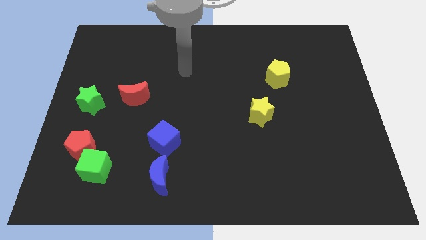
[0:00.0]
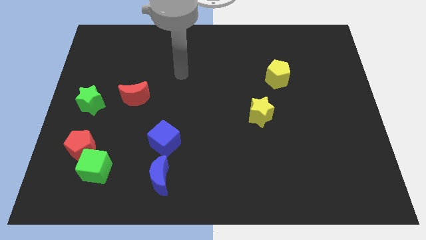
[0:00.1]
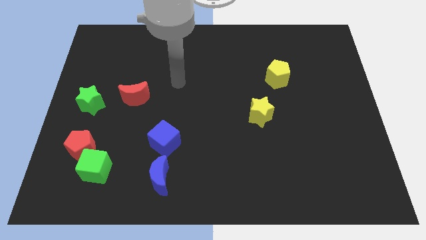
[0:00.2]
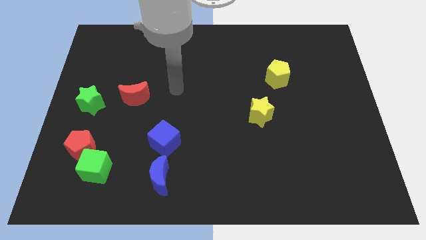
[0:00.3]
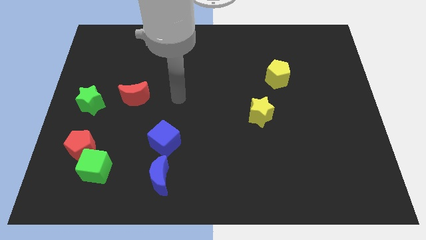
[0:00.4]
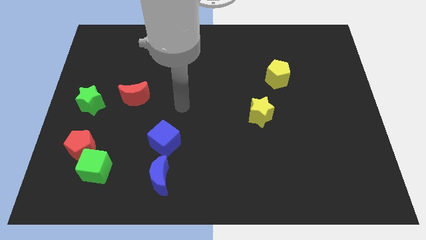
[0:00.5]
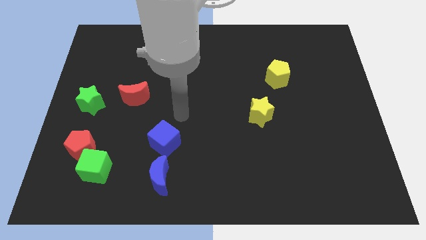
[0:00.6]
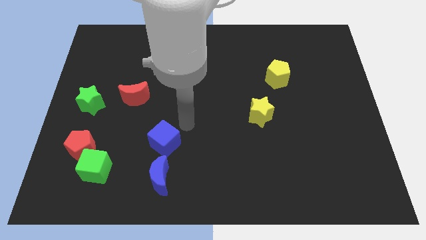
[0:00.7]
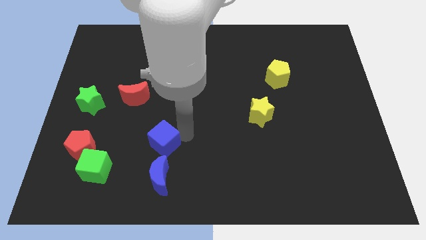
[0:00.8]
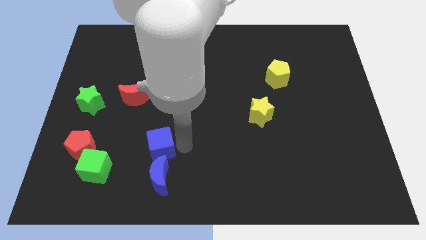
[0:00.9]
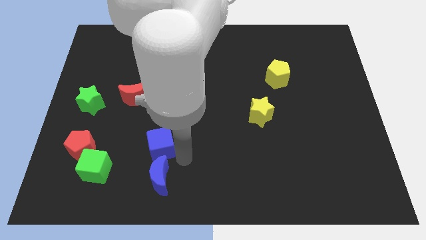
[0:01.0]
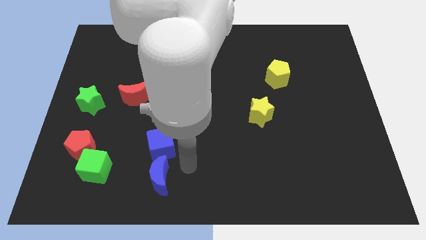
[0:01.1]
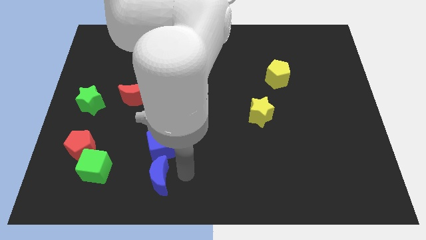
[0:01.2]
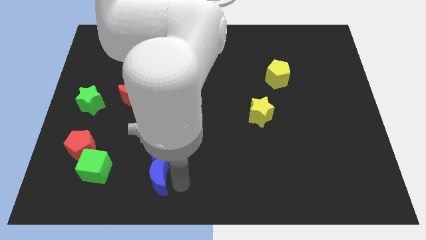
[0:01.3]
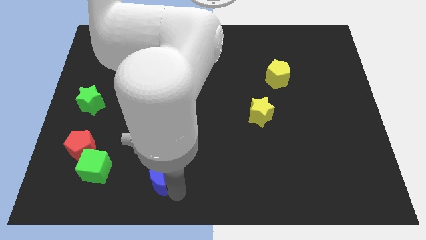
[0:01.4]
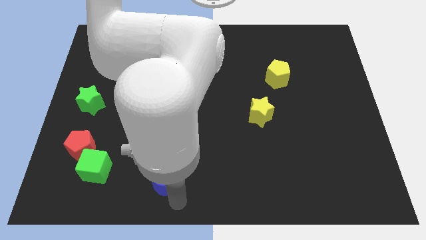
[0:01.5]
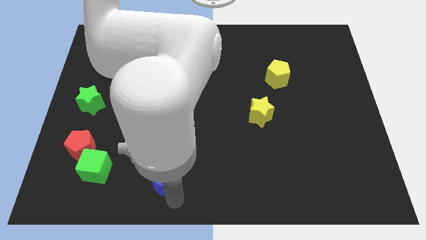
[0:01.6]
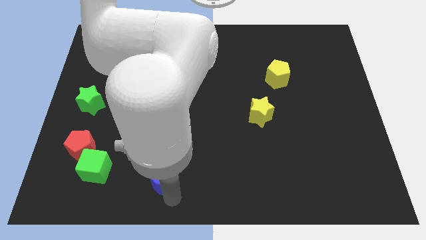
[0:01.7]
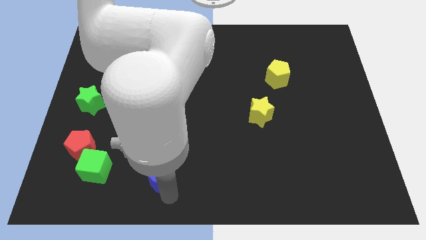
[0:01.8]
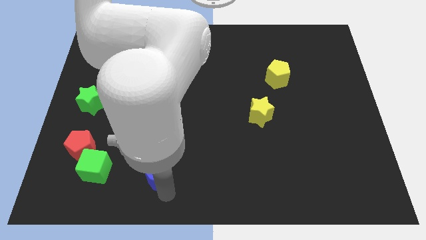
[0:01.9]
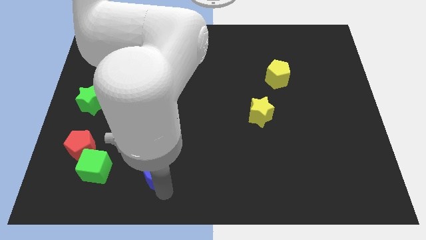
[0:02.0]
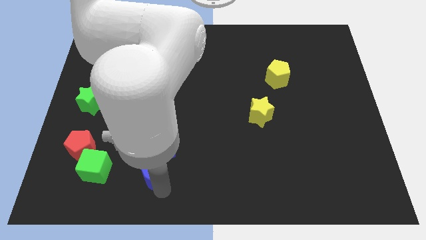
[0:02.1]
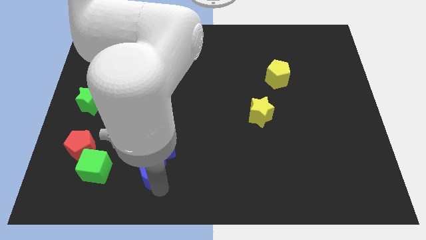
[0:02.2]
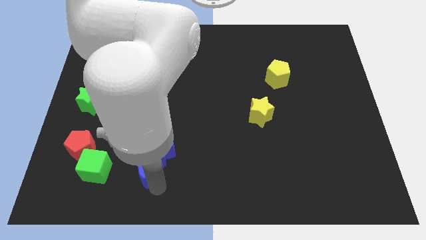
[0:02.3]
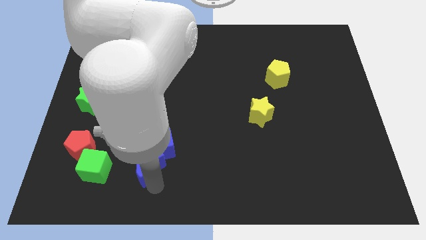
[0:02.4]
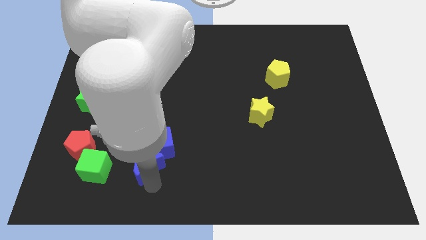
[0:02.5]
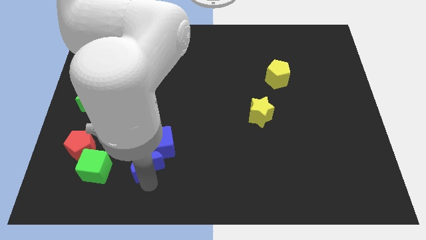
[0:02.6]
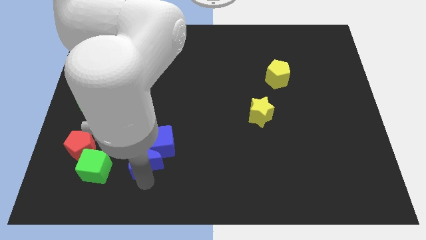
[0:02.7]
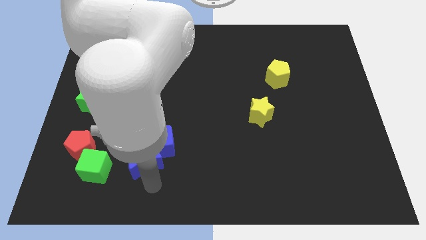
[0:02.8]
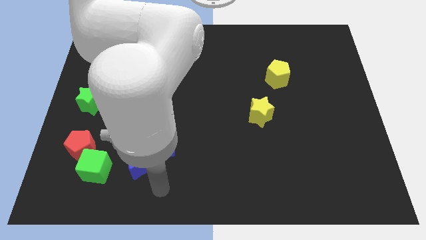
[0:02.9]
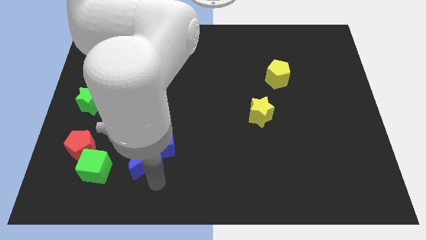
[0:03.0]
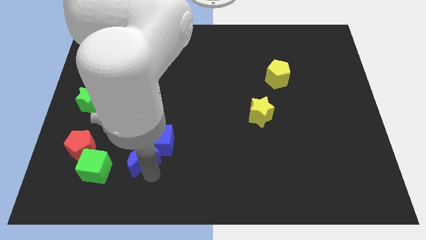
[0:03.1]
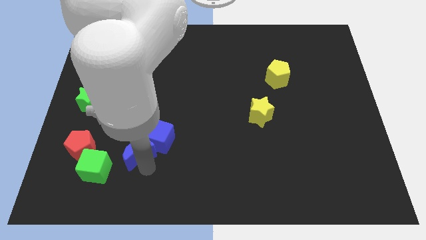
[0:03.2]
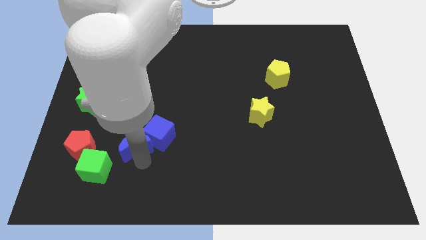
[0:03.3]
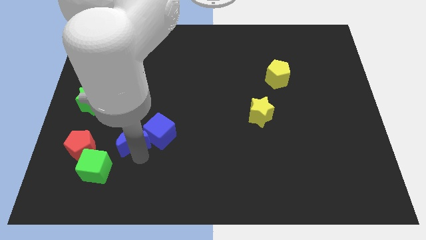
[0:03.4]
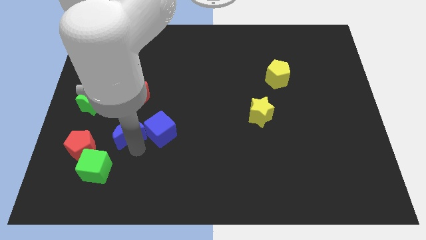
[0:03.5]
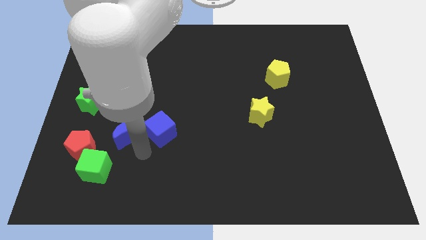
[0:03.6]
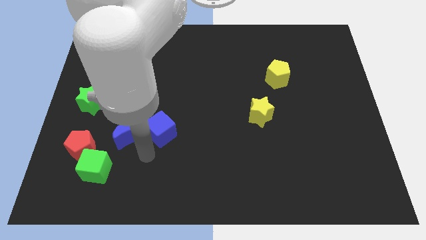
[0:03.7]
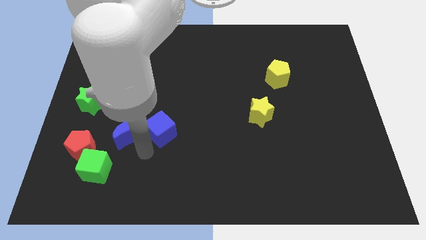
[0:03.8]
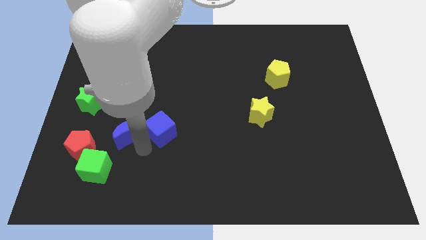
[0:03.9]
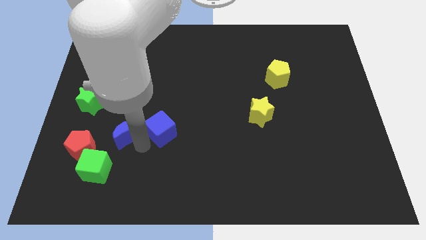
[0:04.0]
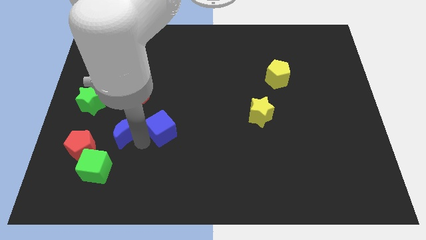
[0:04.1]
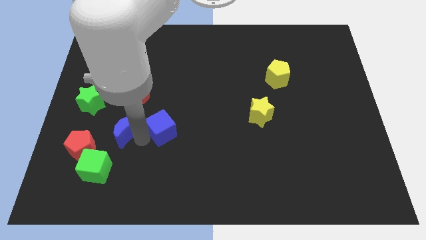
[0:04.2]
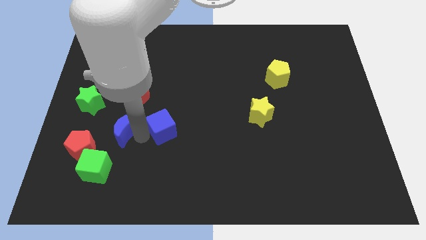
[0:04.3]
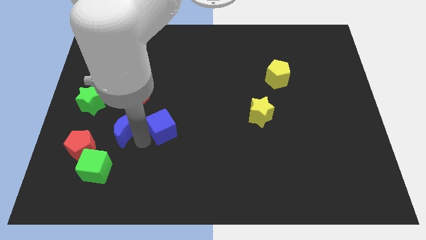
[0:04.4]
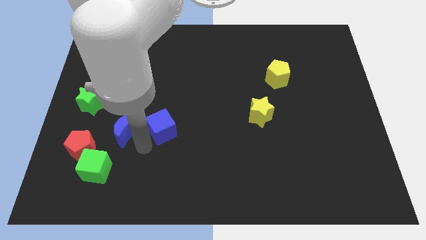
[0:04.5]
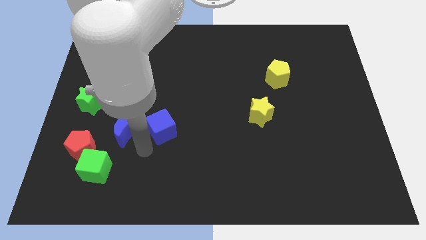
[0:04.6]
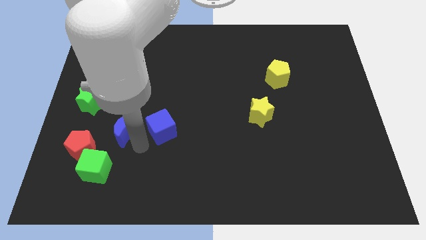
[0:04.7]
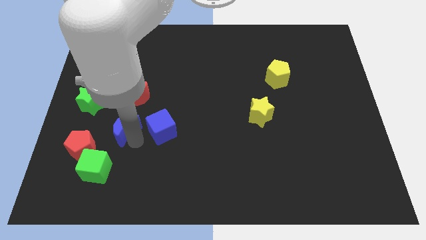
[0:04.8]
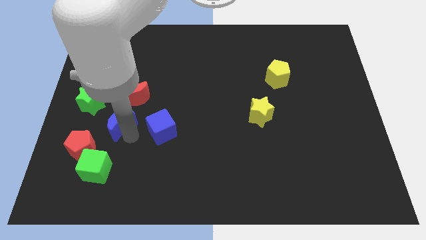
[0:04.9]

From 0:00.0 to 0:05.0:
push the blue moon to the bottom left of the red moon

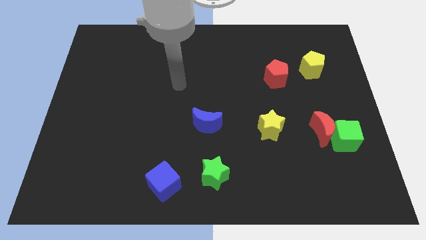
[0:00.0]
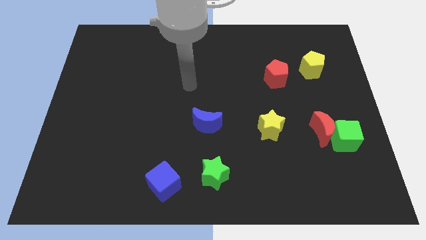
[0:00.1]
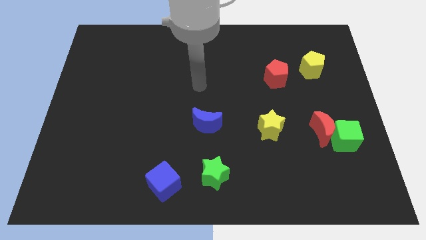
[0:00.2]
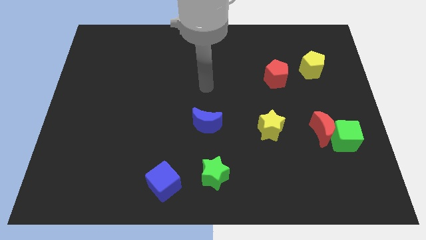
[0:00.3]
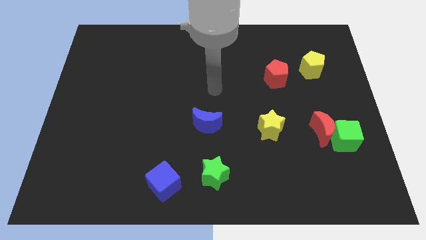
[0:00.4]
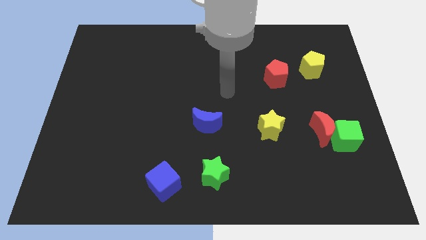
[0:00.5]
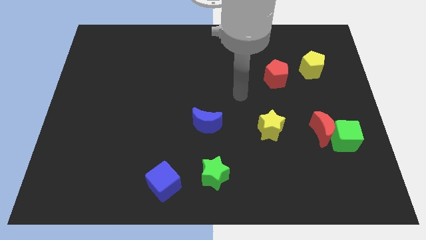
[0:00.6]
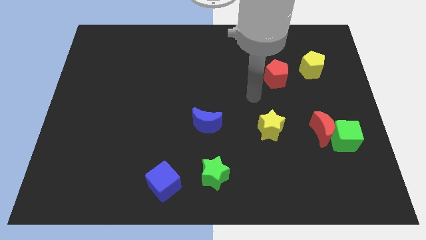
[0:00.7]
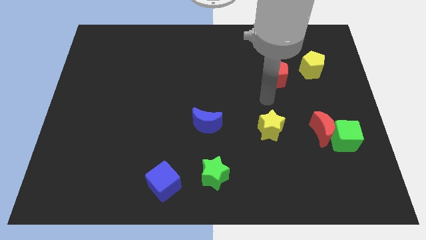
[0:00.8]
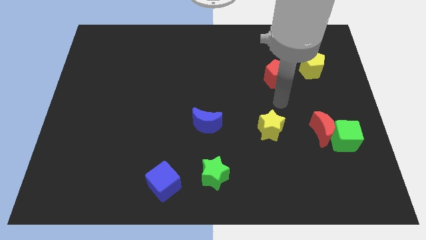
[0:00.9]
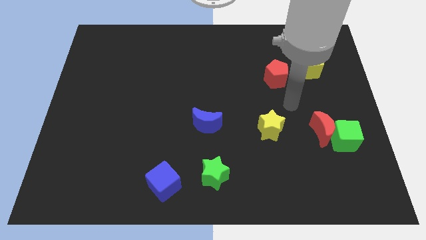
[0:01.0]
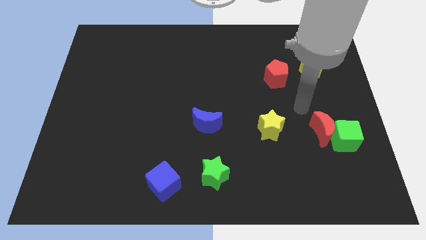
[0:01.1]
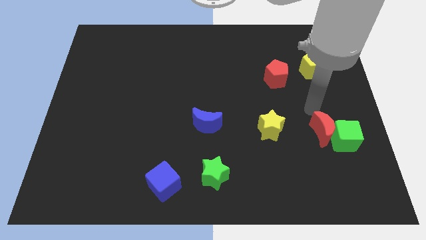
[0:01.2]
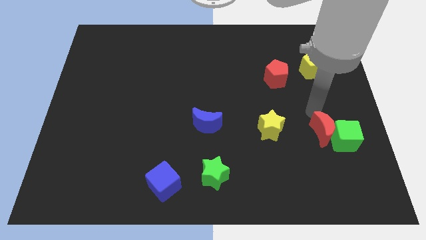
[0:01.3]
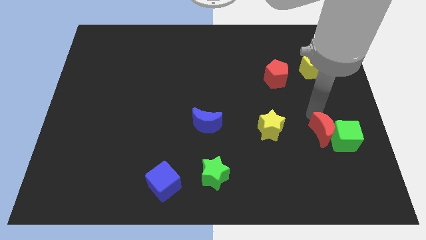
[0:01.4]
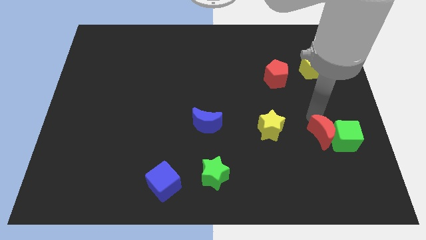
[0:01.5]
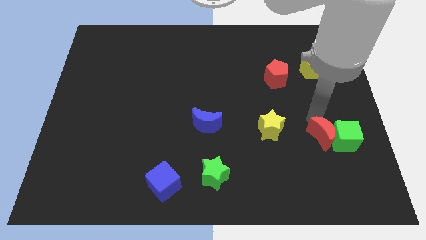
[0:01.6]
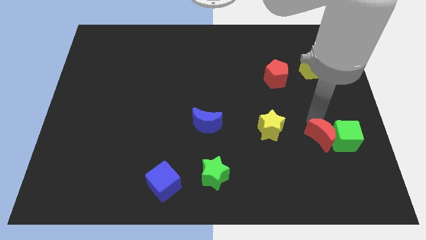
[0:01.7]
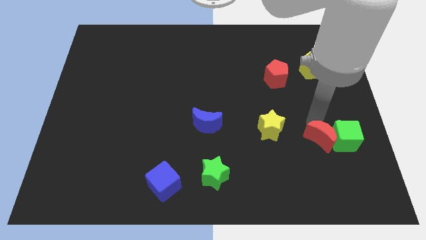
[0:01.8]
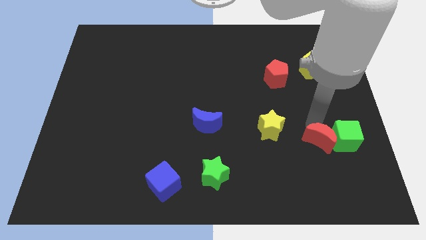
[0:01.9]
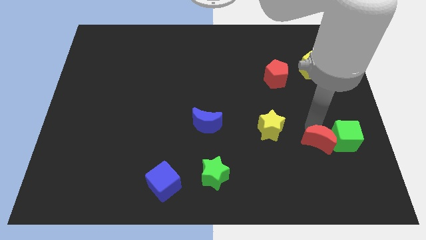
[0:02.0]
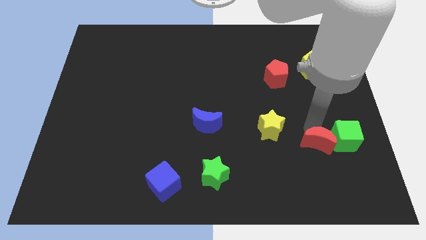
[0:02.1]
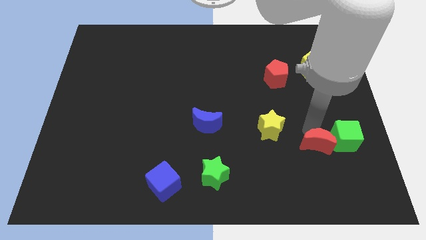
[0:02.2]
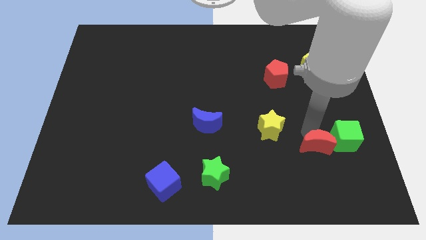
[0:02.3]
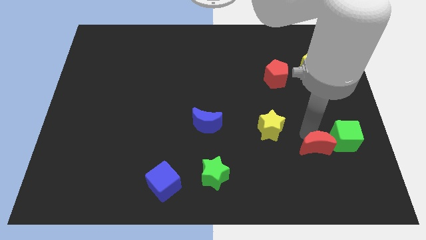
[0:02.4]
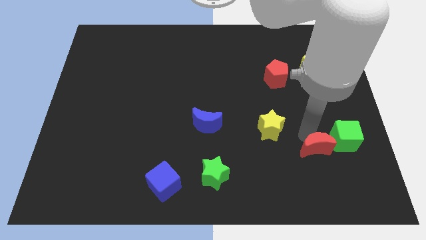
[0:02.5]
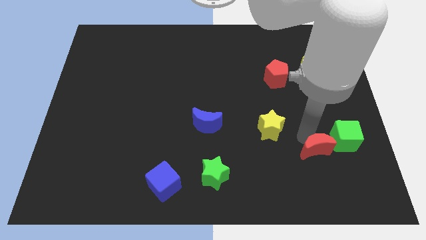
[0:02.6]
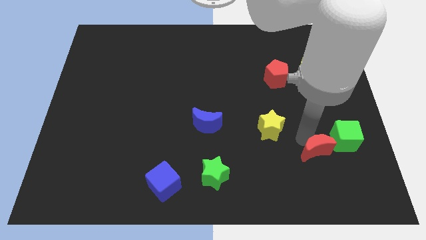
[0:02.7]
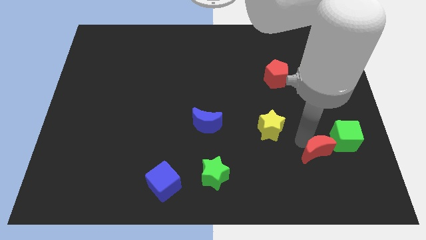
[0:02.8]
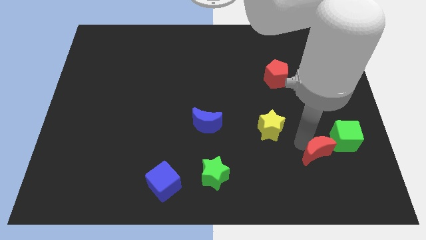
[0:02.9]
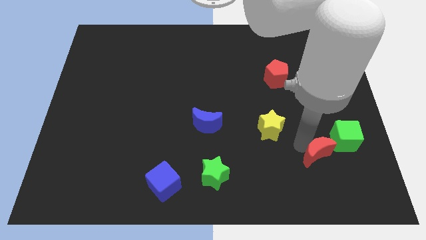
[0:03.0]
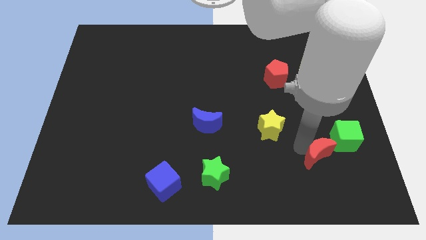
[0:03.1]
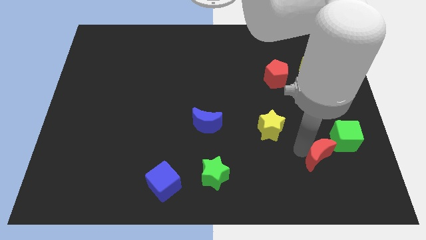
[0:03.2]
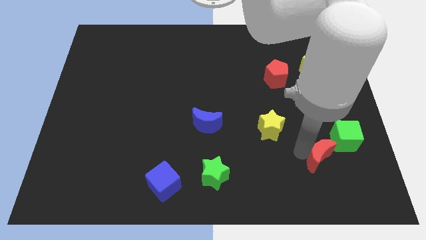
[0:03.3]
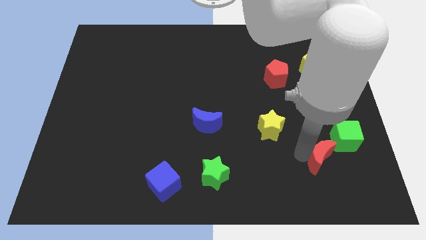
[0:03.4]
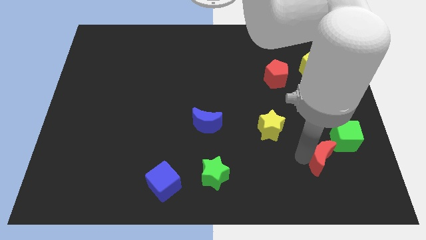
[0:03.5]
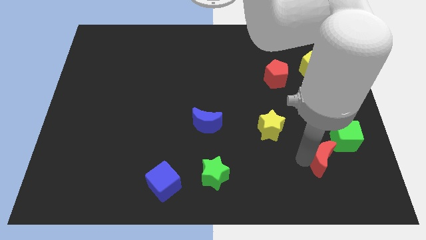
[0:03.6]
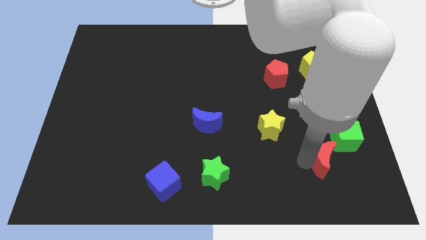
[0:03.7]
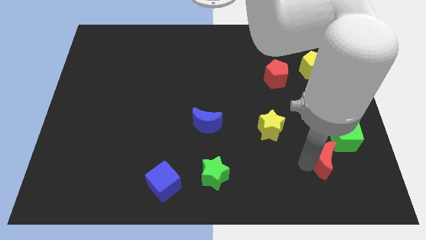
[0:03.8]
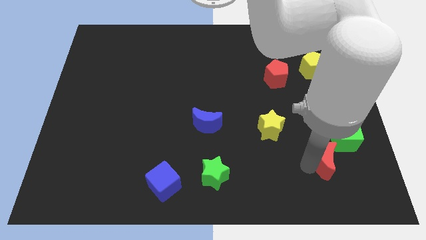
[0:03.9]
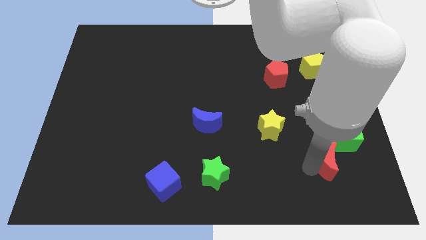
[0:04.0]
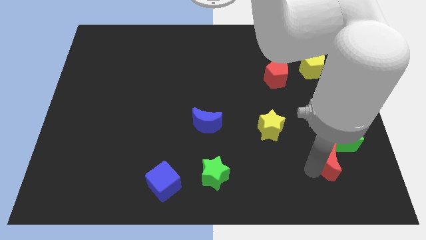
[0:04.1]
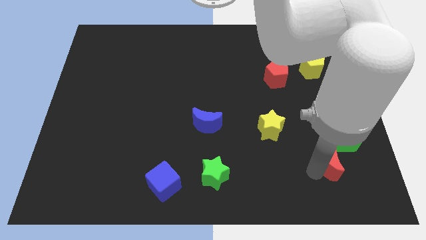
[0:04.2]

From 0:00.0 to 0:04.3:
move the red moon to the bottom side of the green cube
